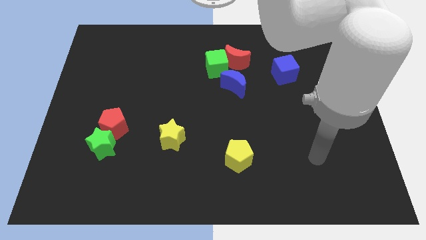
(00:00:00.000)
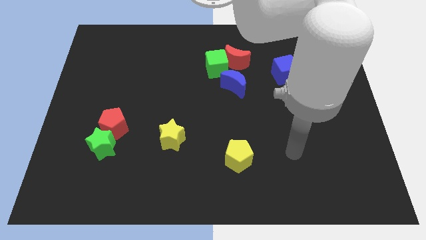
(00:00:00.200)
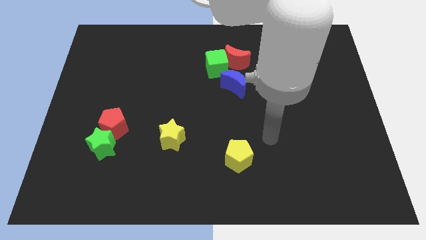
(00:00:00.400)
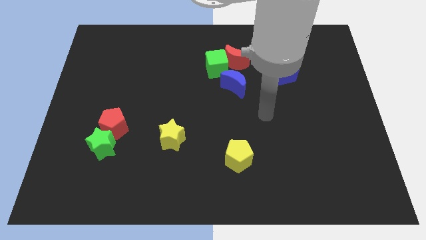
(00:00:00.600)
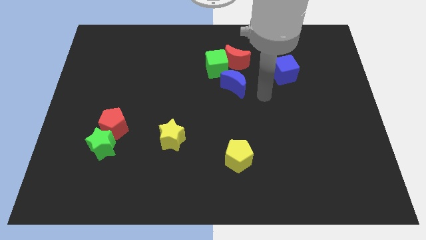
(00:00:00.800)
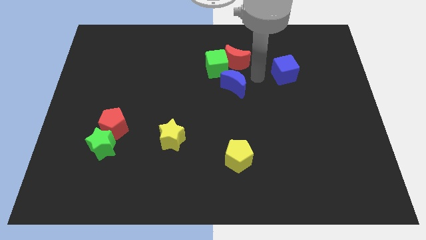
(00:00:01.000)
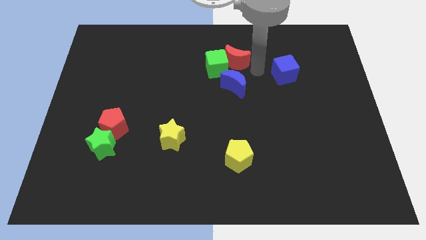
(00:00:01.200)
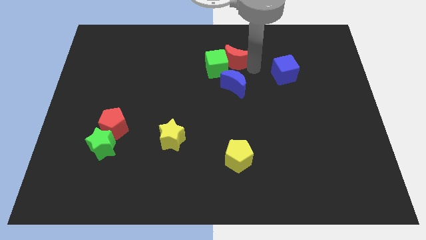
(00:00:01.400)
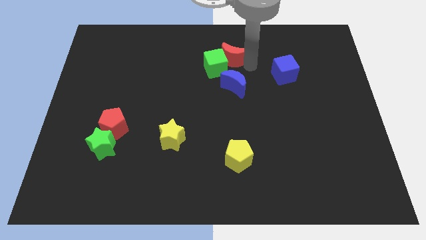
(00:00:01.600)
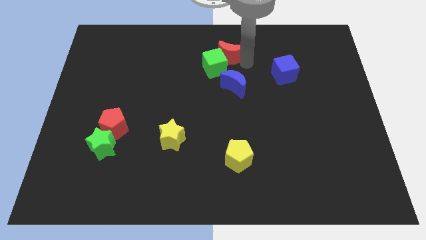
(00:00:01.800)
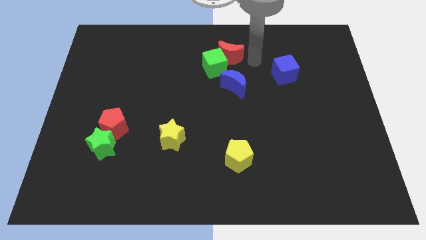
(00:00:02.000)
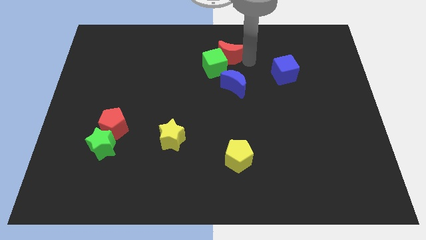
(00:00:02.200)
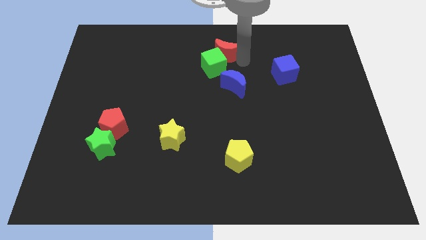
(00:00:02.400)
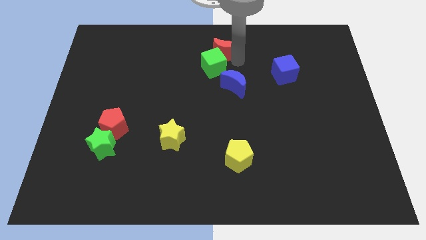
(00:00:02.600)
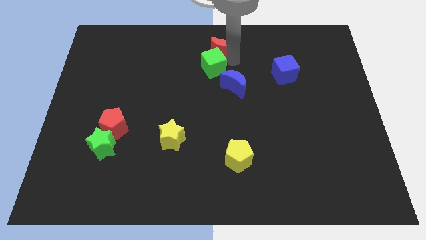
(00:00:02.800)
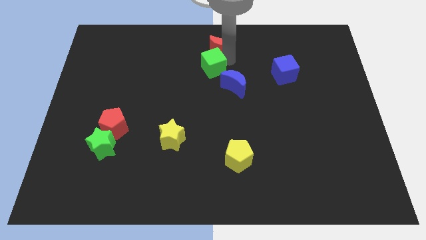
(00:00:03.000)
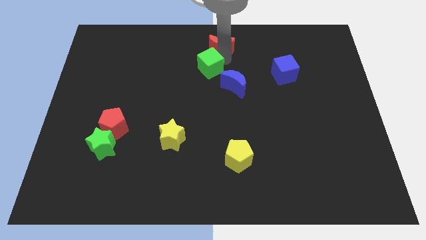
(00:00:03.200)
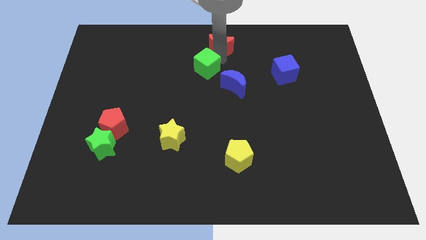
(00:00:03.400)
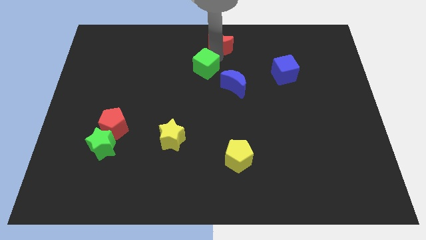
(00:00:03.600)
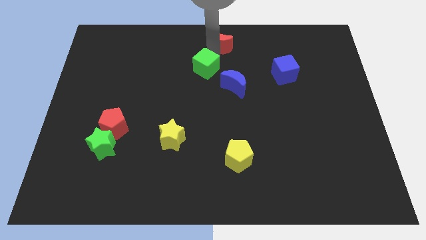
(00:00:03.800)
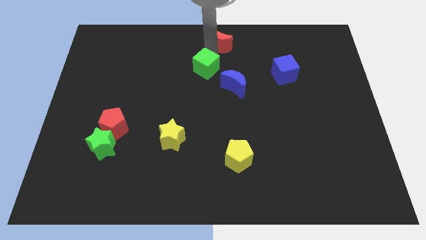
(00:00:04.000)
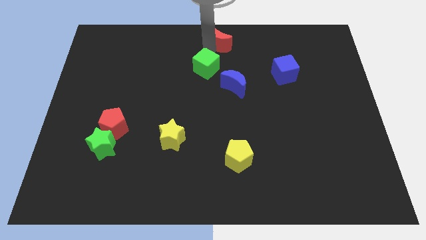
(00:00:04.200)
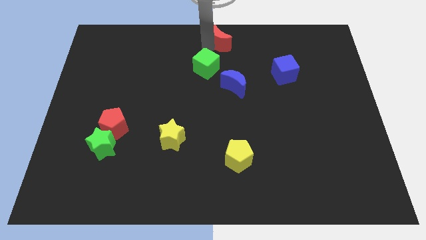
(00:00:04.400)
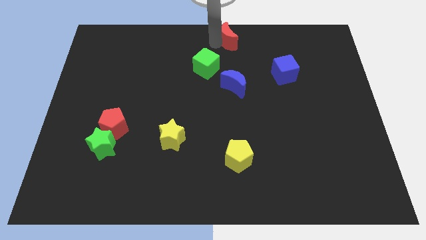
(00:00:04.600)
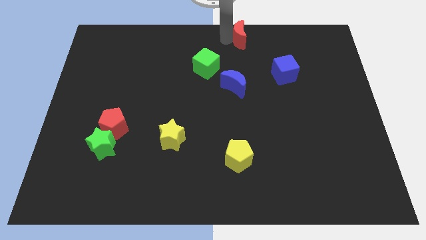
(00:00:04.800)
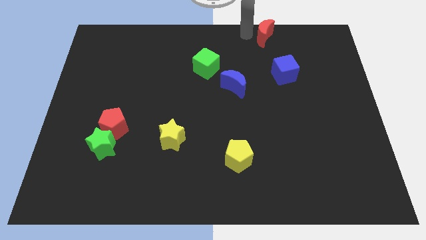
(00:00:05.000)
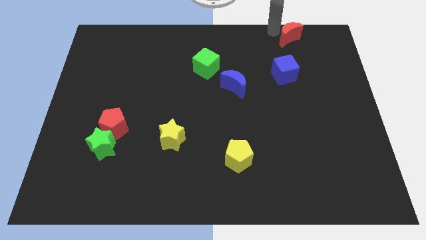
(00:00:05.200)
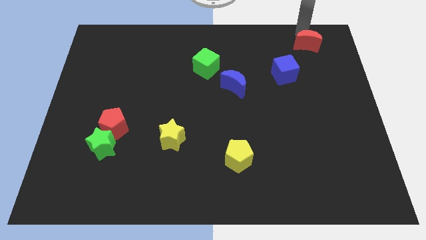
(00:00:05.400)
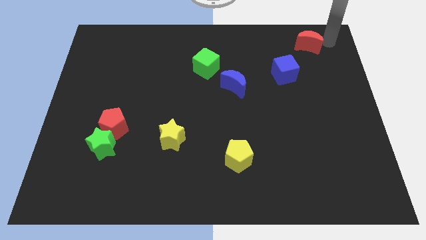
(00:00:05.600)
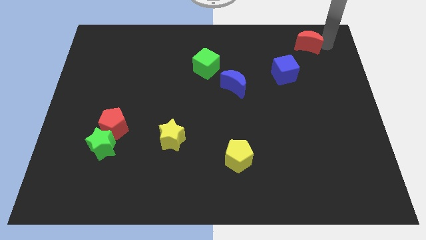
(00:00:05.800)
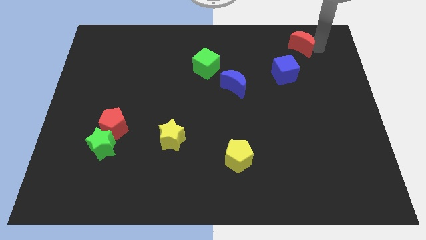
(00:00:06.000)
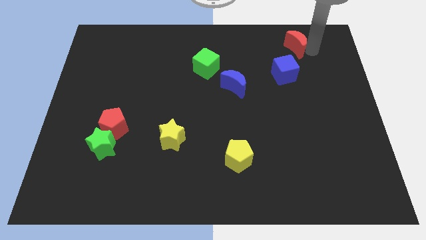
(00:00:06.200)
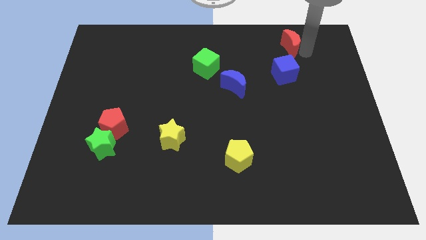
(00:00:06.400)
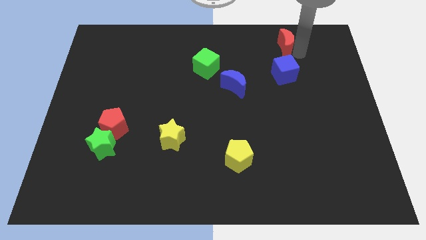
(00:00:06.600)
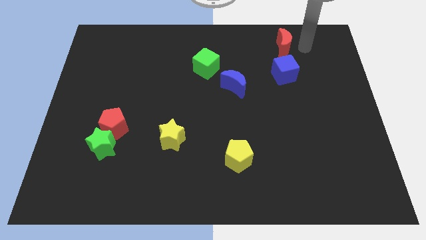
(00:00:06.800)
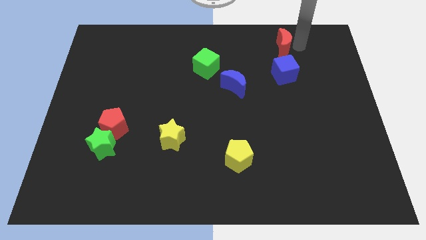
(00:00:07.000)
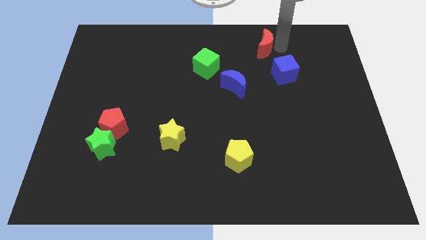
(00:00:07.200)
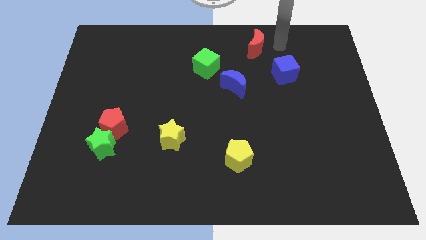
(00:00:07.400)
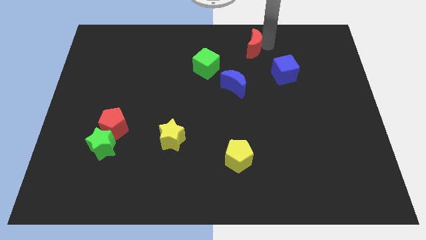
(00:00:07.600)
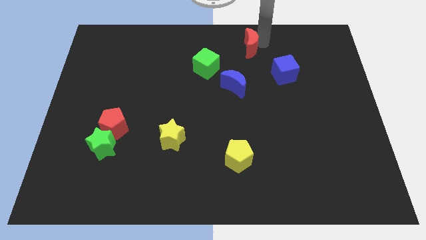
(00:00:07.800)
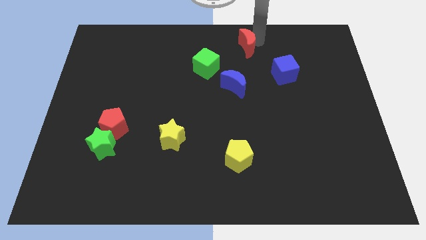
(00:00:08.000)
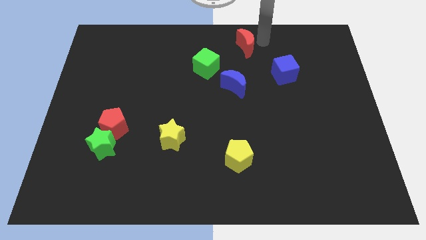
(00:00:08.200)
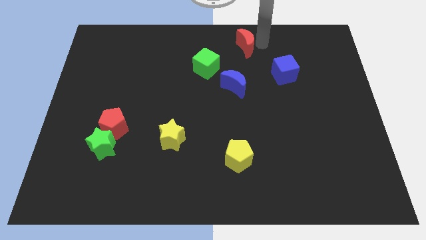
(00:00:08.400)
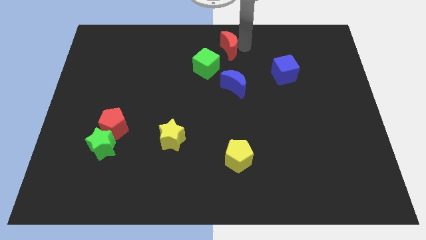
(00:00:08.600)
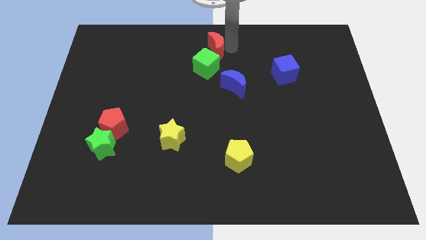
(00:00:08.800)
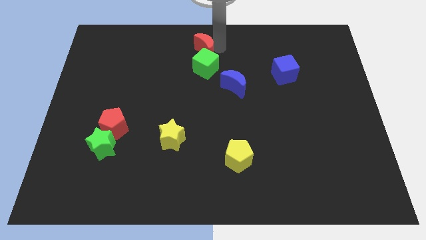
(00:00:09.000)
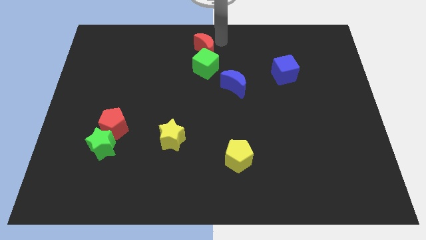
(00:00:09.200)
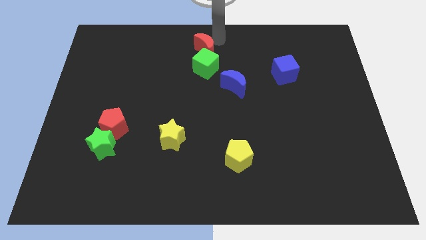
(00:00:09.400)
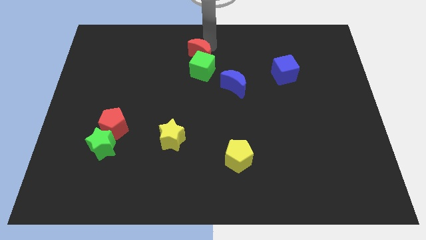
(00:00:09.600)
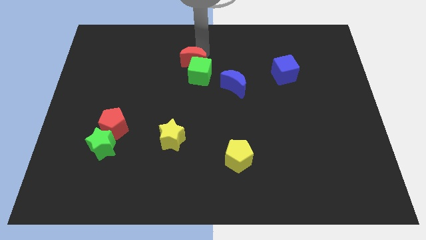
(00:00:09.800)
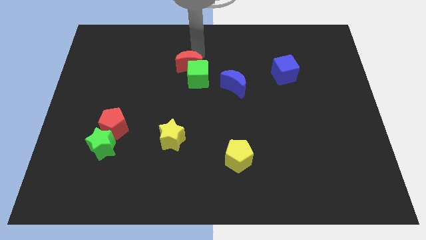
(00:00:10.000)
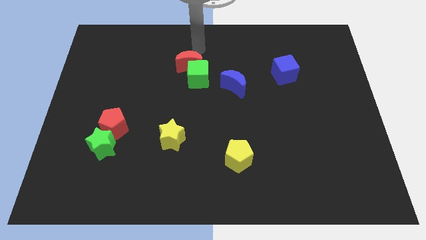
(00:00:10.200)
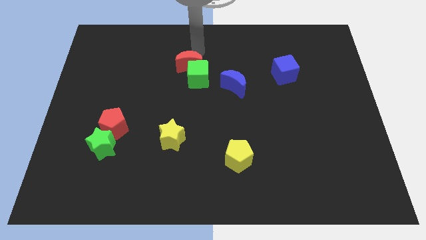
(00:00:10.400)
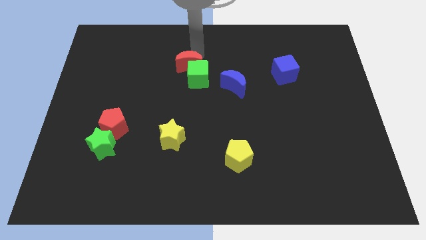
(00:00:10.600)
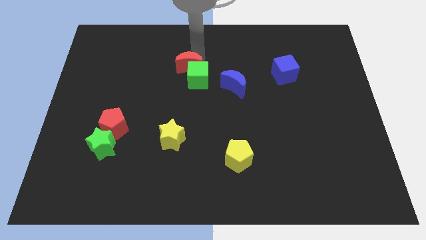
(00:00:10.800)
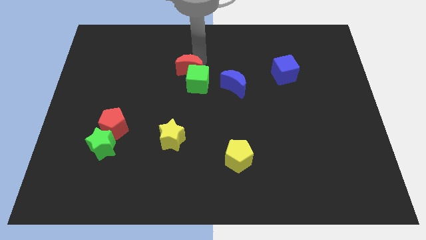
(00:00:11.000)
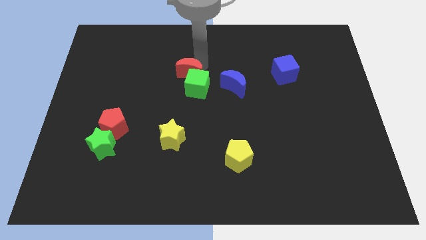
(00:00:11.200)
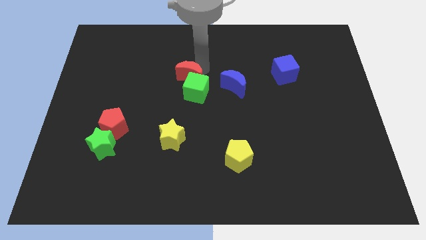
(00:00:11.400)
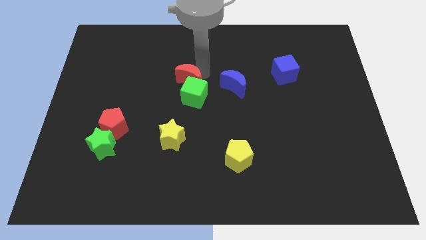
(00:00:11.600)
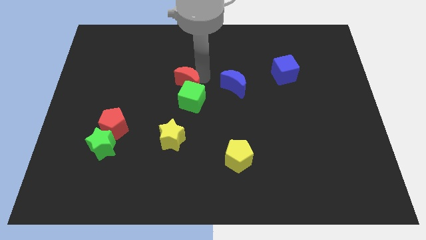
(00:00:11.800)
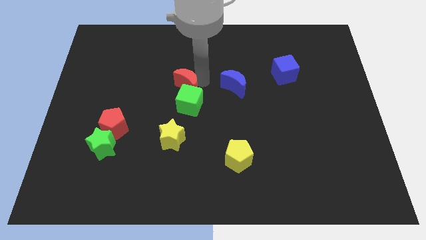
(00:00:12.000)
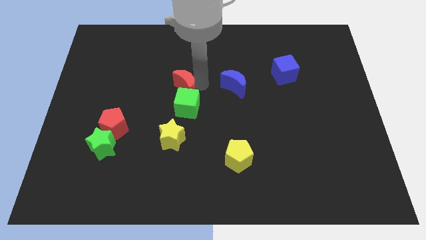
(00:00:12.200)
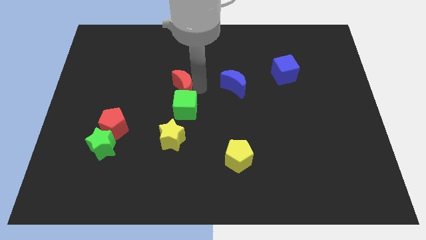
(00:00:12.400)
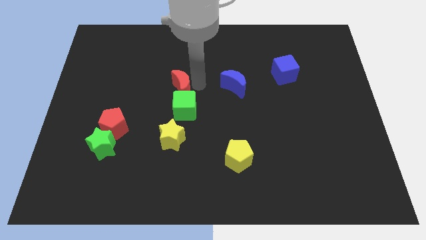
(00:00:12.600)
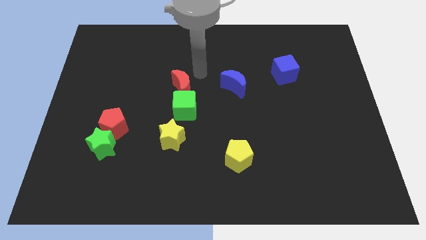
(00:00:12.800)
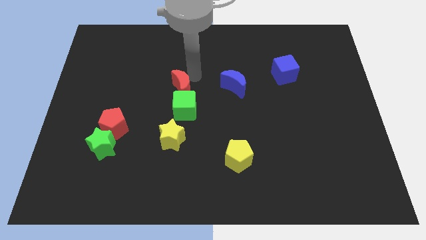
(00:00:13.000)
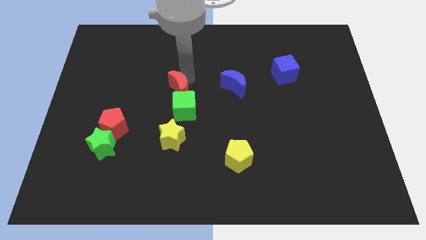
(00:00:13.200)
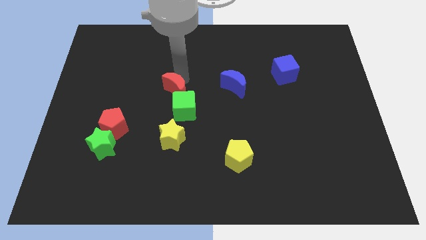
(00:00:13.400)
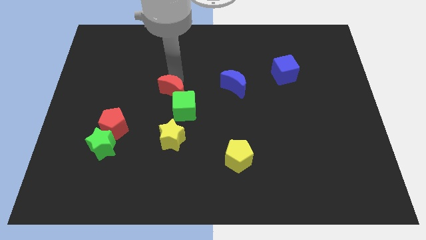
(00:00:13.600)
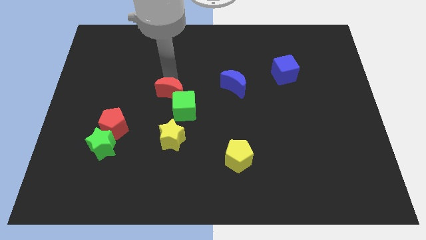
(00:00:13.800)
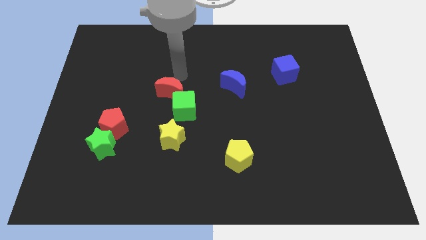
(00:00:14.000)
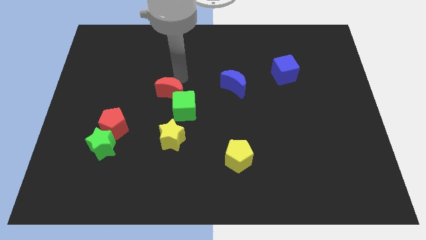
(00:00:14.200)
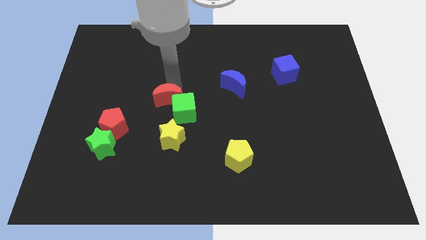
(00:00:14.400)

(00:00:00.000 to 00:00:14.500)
push the red moon downwards and to the left diagonally

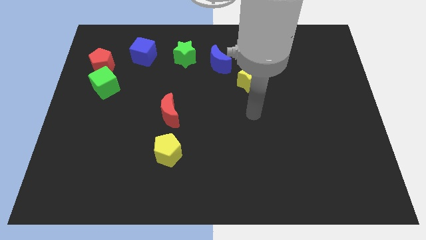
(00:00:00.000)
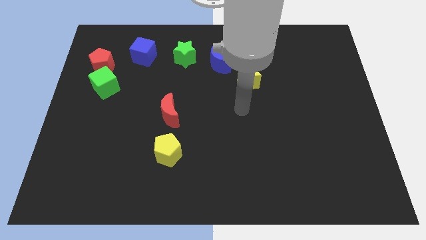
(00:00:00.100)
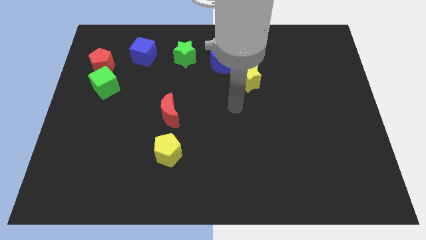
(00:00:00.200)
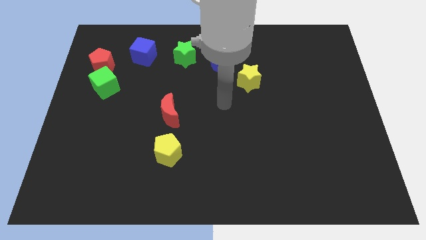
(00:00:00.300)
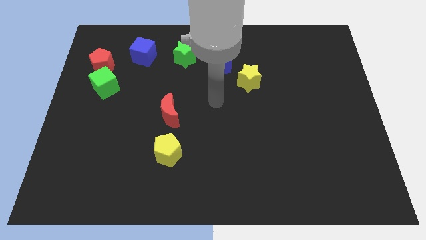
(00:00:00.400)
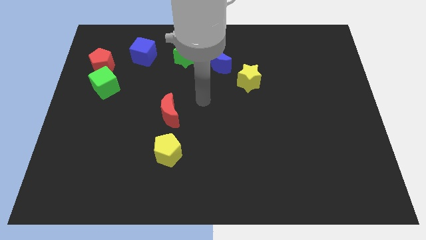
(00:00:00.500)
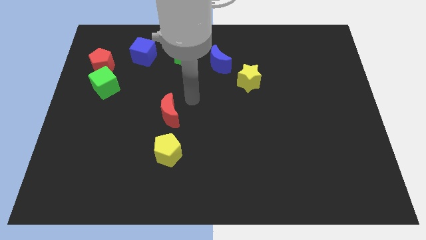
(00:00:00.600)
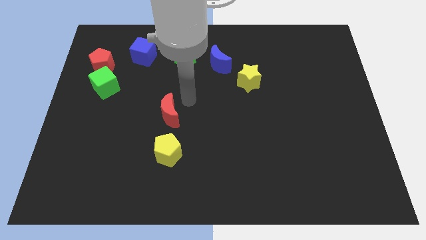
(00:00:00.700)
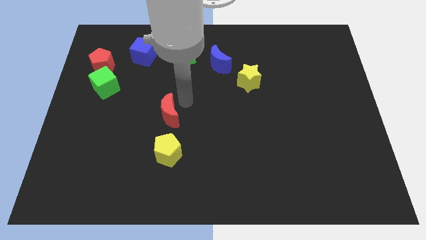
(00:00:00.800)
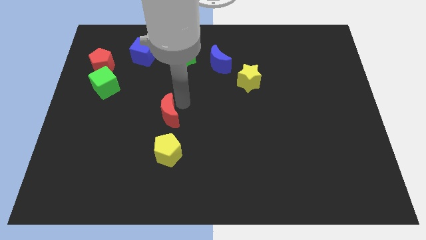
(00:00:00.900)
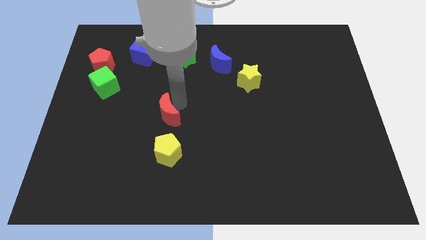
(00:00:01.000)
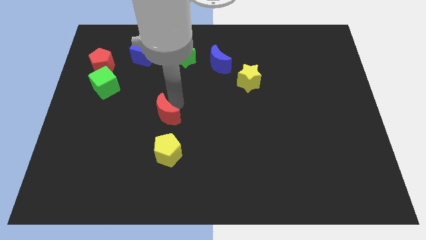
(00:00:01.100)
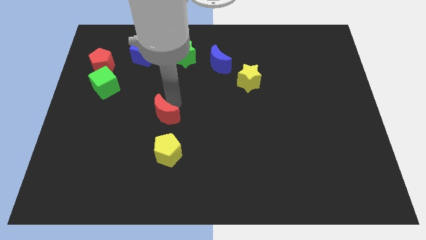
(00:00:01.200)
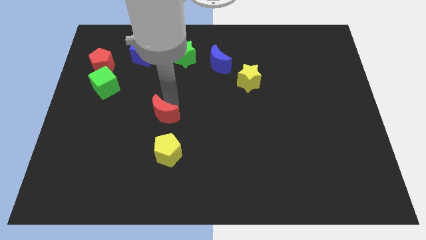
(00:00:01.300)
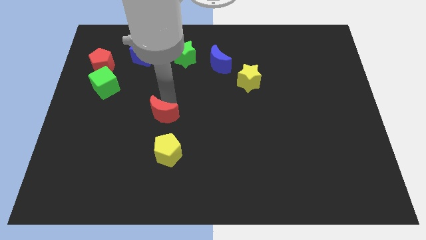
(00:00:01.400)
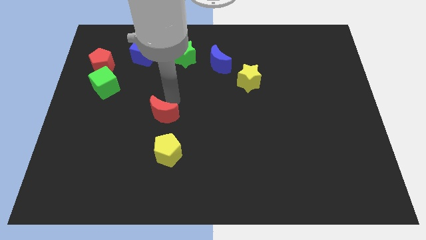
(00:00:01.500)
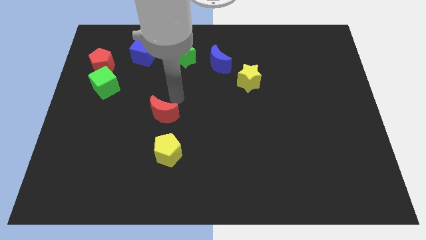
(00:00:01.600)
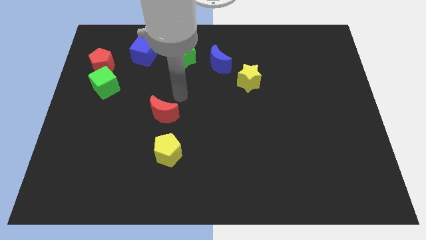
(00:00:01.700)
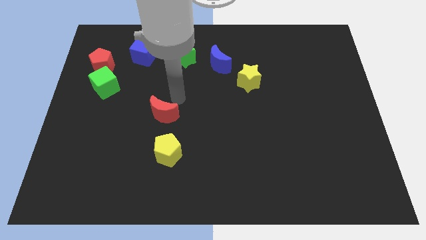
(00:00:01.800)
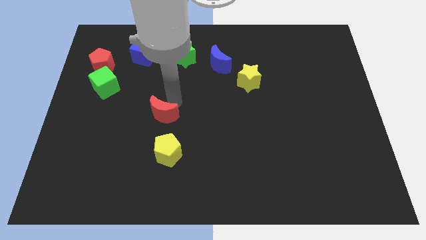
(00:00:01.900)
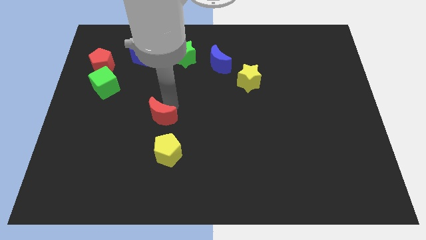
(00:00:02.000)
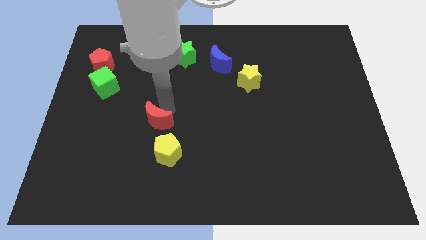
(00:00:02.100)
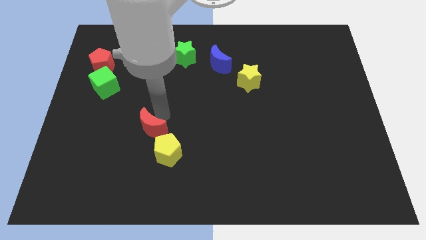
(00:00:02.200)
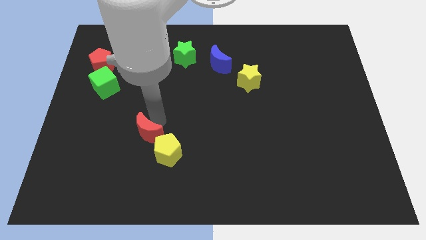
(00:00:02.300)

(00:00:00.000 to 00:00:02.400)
move the red moon somewhat diagonally down and left
